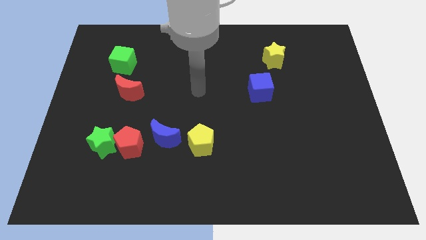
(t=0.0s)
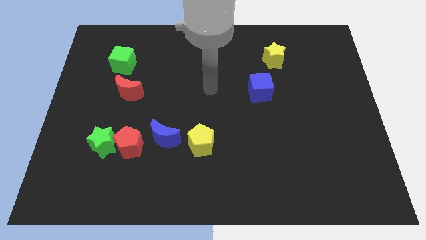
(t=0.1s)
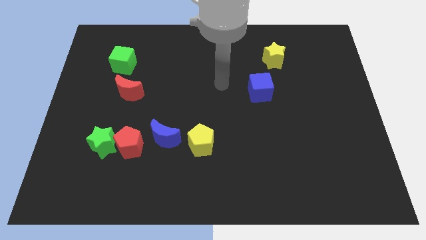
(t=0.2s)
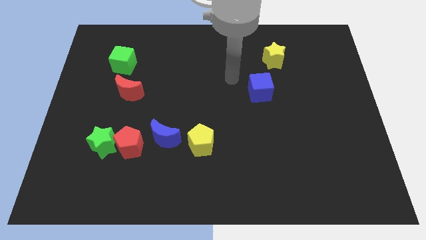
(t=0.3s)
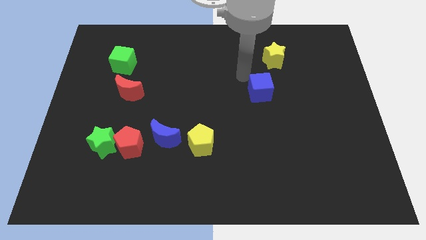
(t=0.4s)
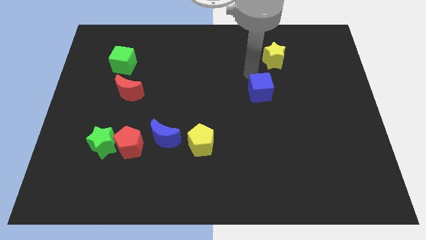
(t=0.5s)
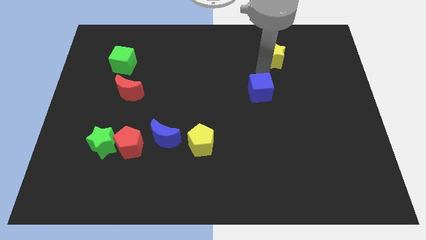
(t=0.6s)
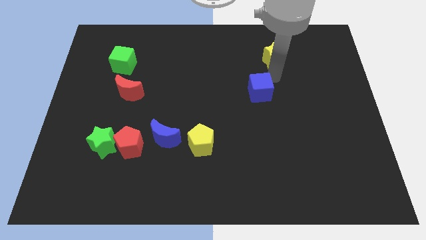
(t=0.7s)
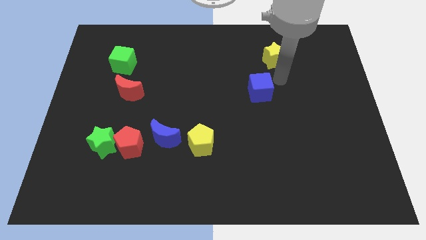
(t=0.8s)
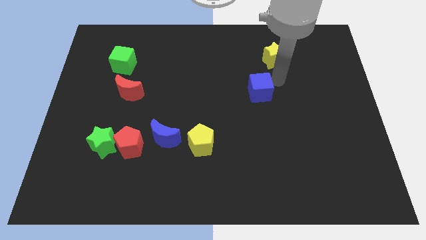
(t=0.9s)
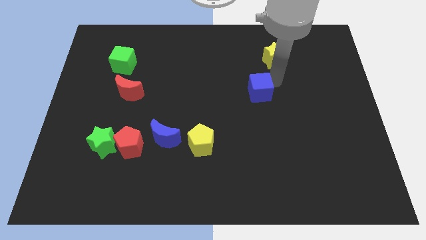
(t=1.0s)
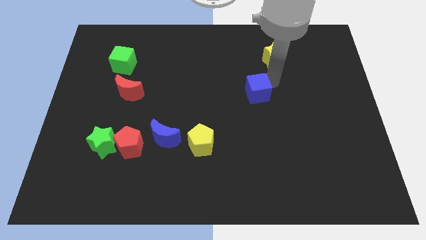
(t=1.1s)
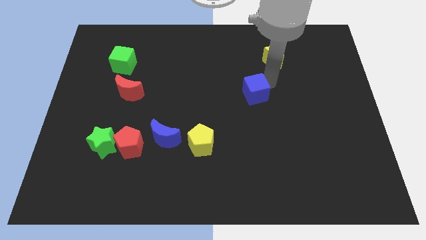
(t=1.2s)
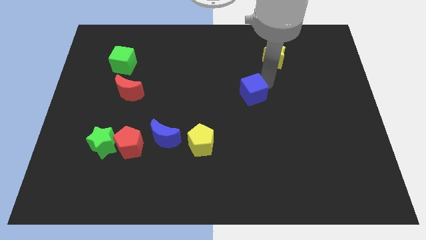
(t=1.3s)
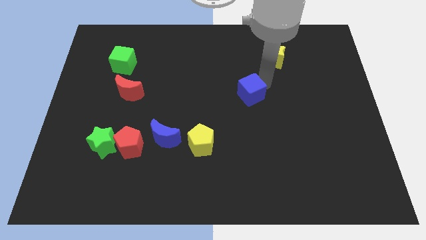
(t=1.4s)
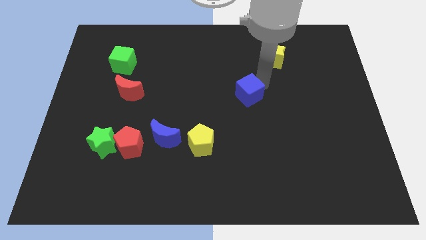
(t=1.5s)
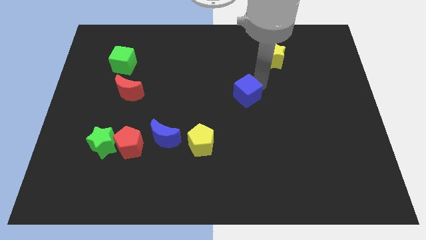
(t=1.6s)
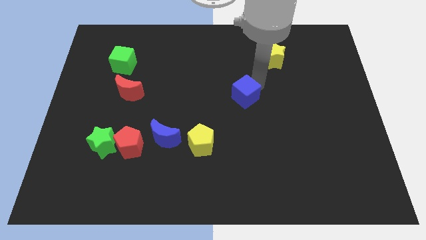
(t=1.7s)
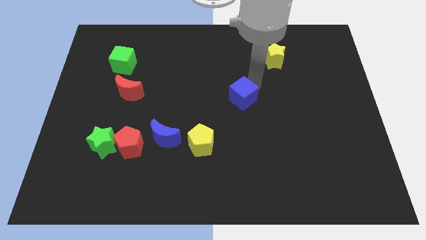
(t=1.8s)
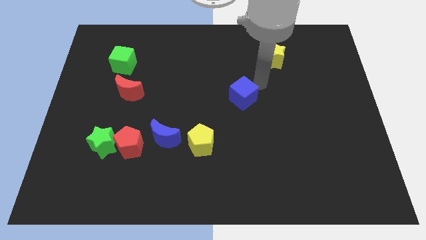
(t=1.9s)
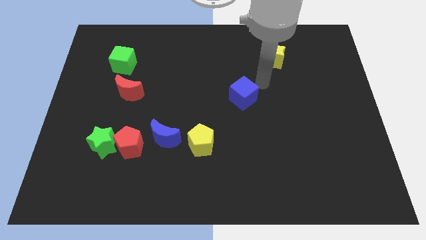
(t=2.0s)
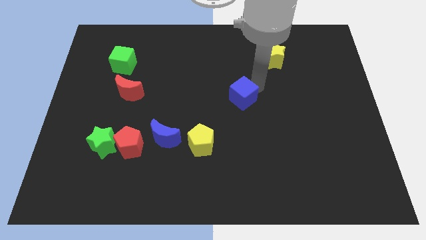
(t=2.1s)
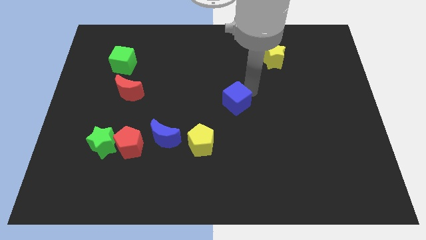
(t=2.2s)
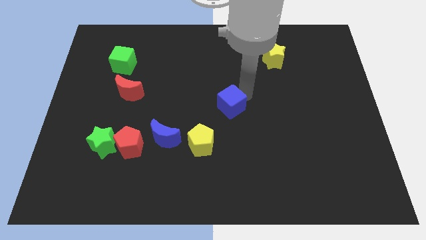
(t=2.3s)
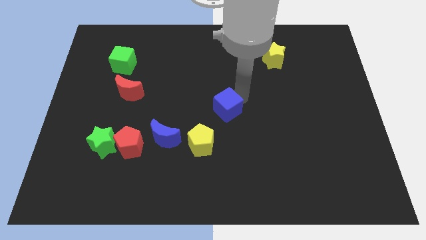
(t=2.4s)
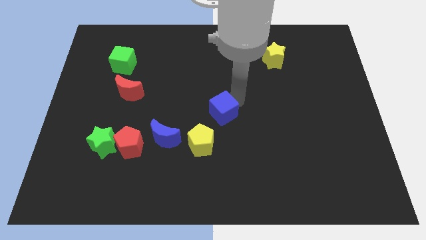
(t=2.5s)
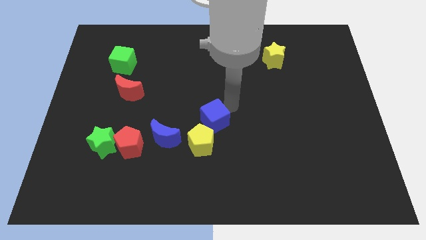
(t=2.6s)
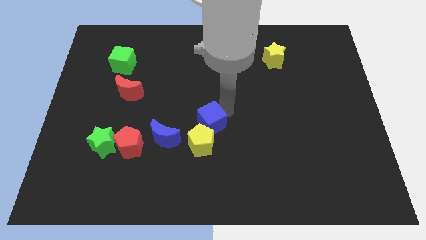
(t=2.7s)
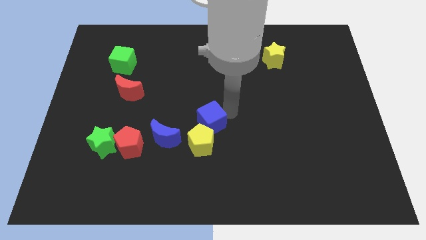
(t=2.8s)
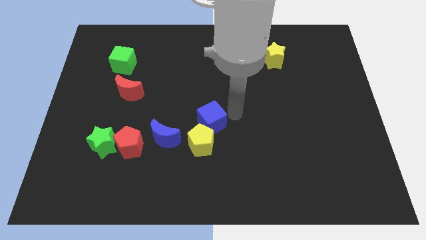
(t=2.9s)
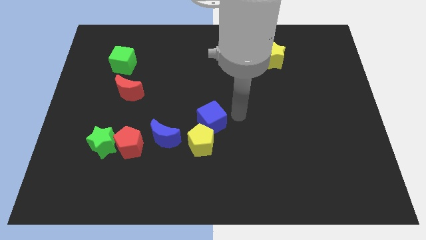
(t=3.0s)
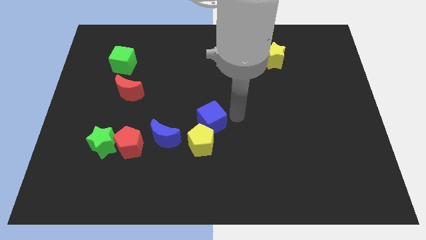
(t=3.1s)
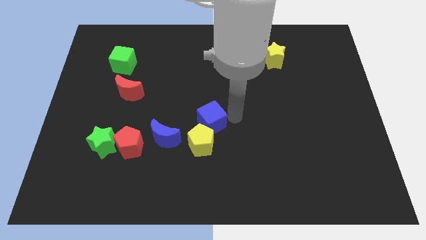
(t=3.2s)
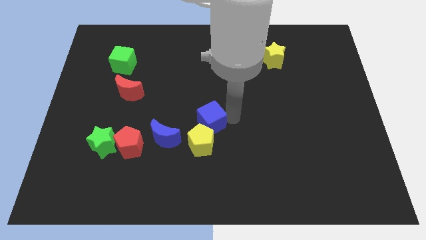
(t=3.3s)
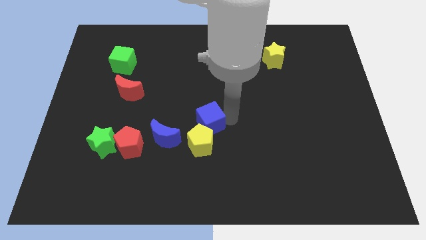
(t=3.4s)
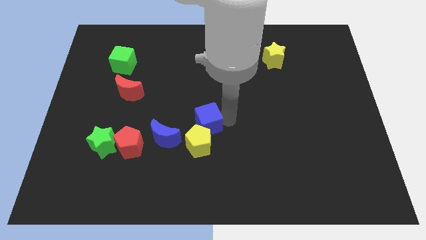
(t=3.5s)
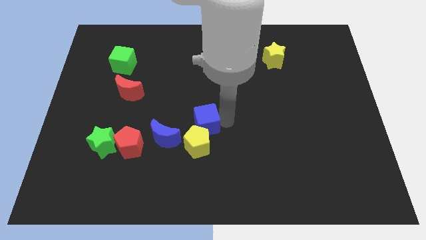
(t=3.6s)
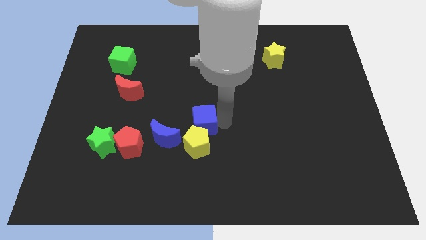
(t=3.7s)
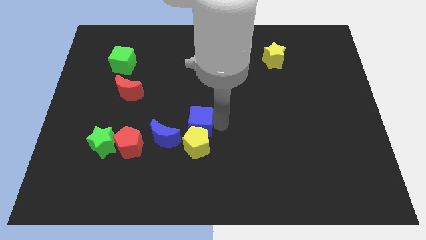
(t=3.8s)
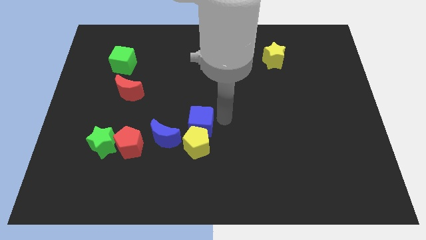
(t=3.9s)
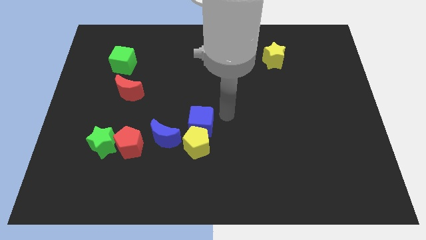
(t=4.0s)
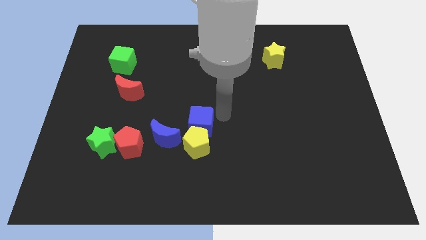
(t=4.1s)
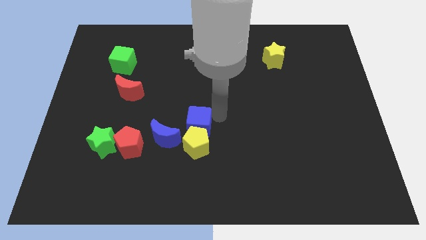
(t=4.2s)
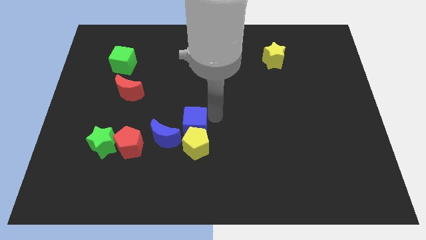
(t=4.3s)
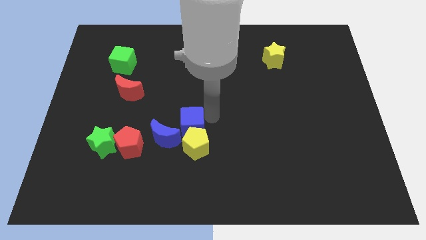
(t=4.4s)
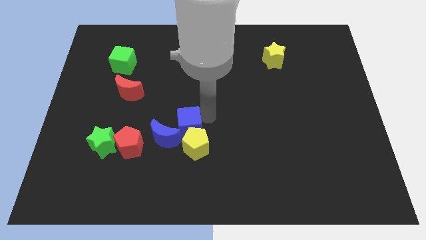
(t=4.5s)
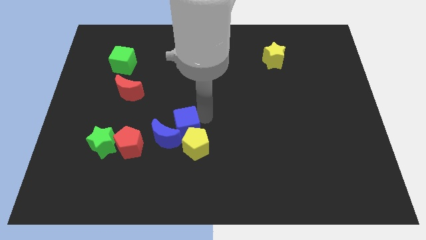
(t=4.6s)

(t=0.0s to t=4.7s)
slide the blue cube next to the blue moon

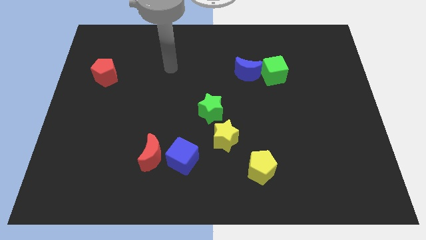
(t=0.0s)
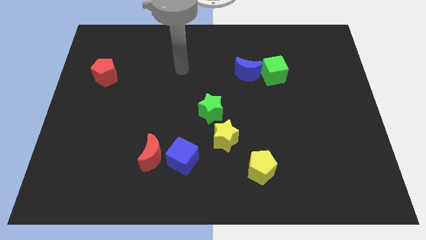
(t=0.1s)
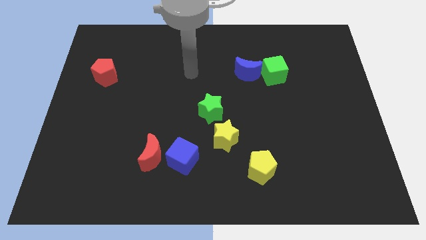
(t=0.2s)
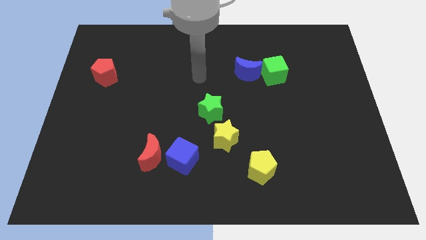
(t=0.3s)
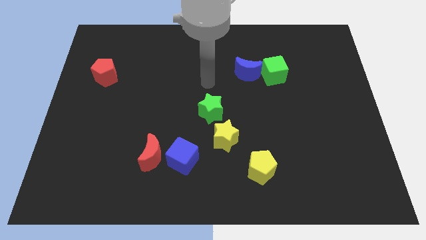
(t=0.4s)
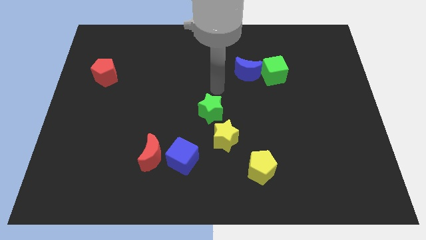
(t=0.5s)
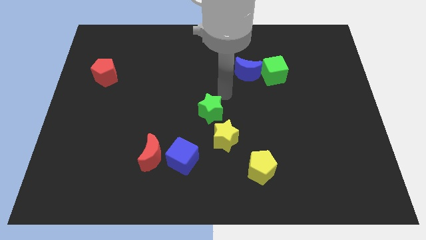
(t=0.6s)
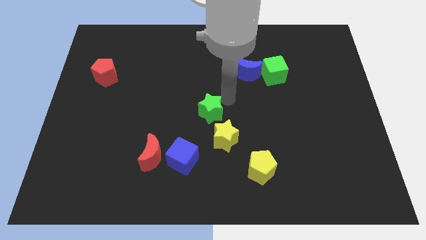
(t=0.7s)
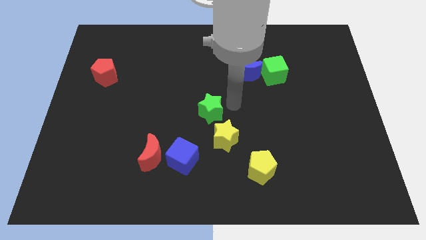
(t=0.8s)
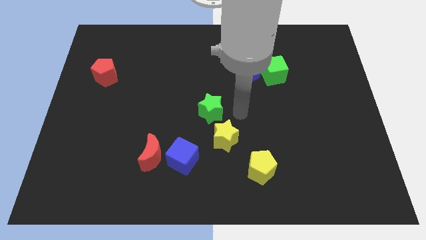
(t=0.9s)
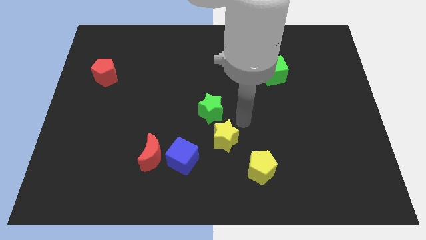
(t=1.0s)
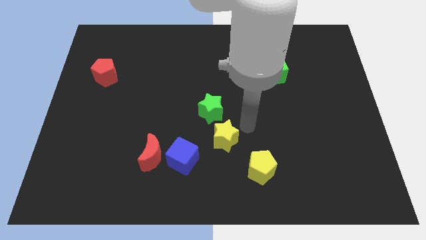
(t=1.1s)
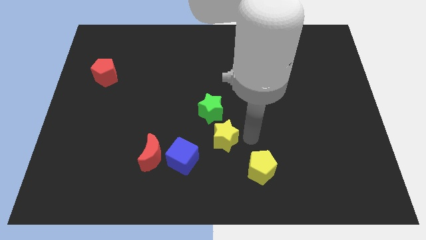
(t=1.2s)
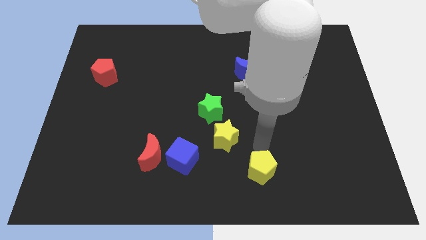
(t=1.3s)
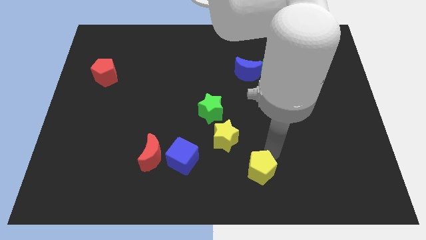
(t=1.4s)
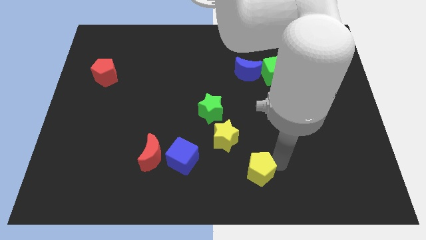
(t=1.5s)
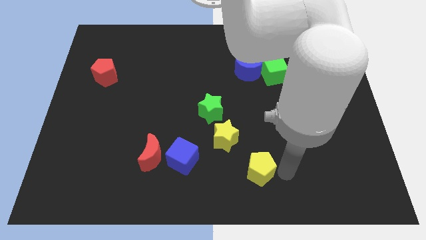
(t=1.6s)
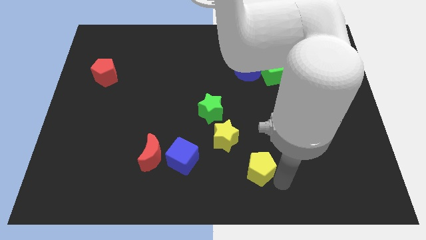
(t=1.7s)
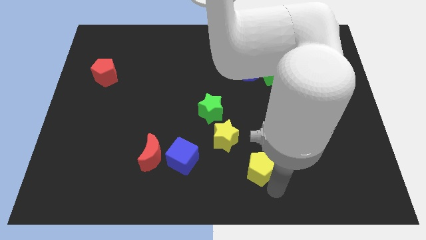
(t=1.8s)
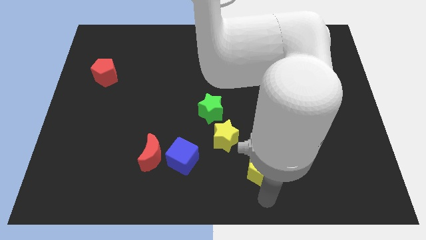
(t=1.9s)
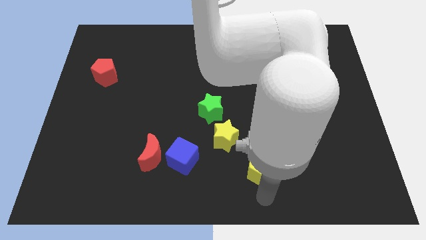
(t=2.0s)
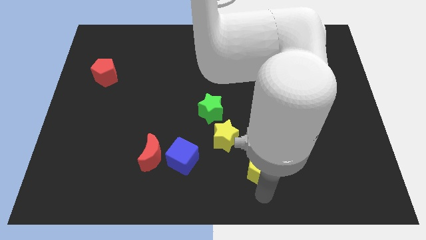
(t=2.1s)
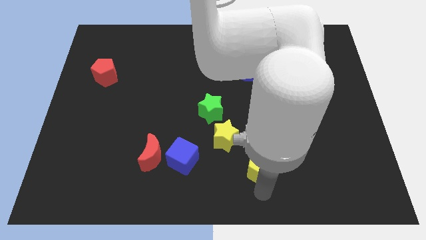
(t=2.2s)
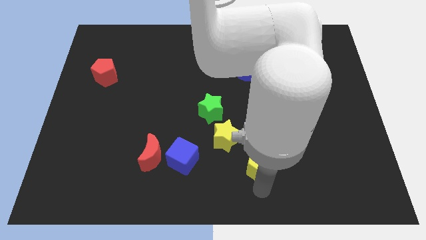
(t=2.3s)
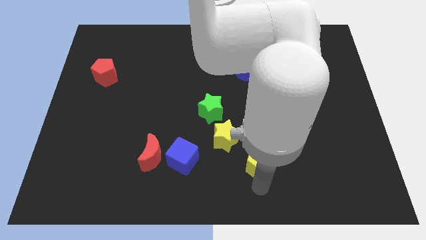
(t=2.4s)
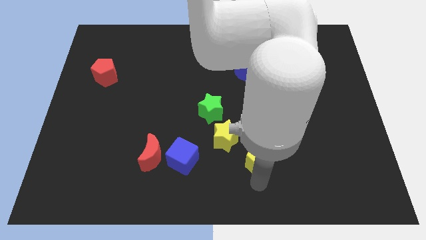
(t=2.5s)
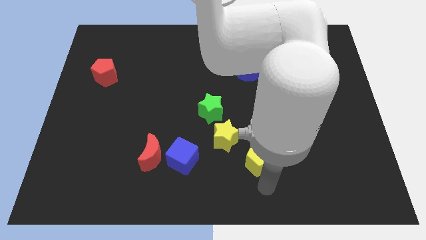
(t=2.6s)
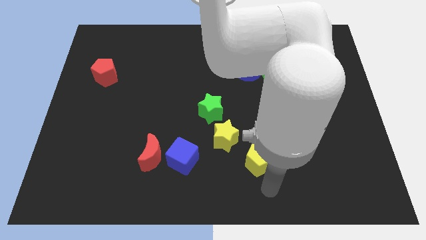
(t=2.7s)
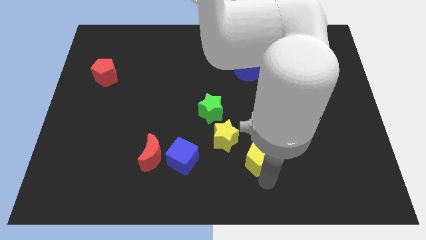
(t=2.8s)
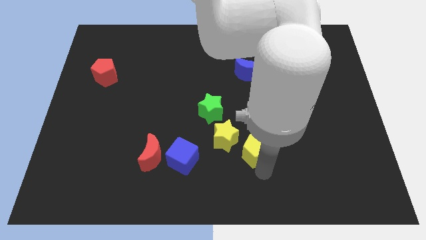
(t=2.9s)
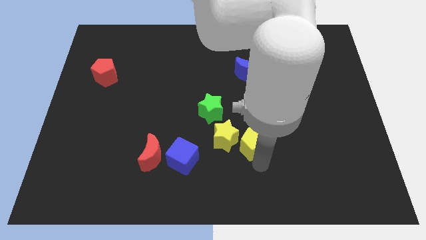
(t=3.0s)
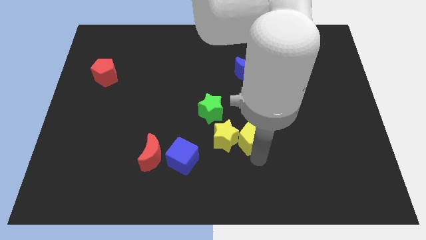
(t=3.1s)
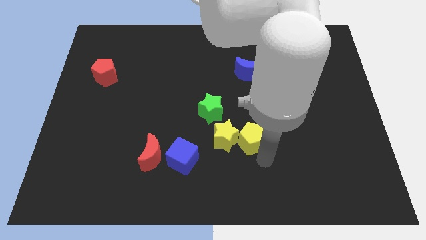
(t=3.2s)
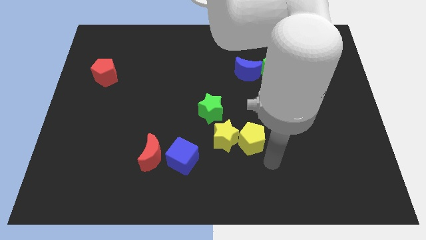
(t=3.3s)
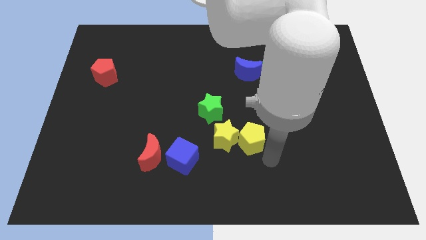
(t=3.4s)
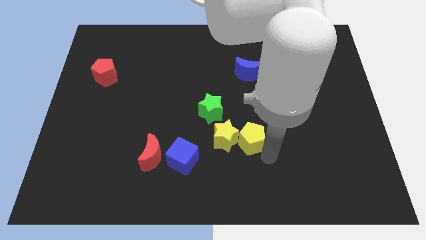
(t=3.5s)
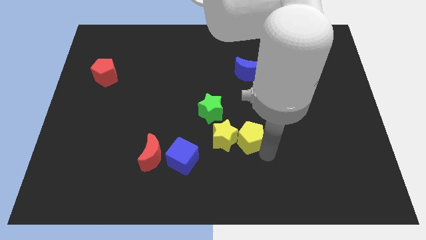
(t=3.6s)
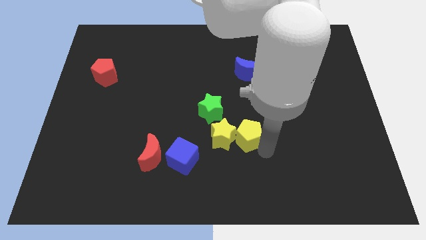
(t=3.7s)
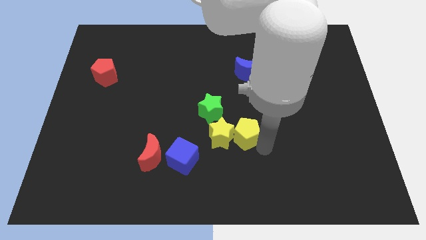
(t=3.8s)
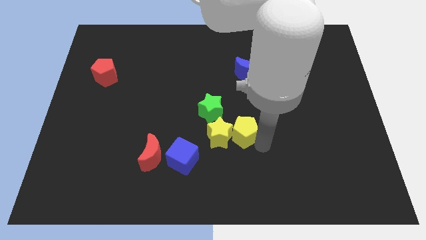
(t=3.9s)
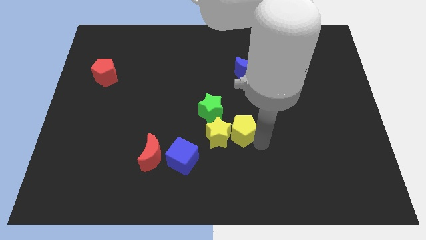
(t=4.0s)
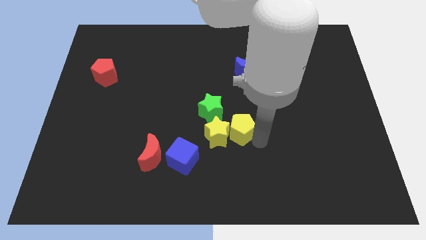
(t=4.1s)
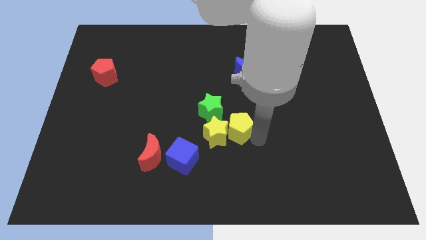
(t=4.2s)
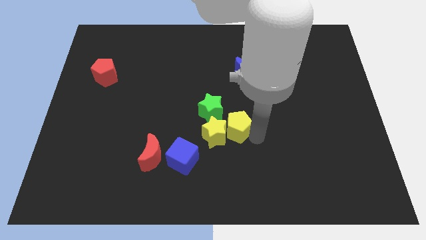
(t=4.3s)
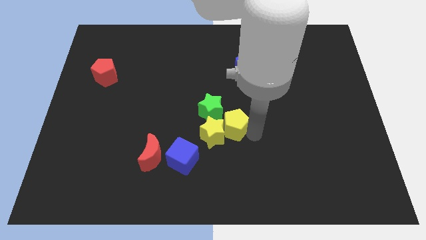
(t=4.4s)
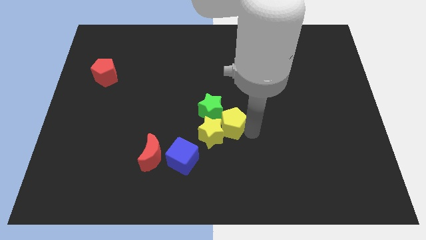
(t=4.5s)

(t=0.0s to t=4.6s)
slide the yellow pentagon towards the green star
